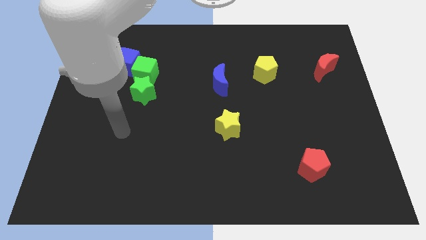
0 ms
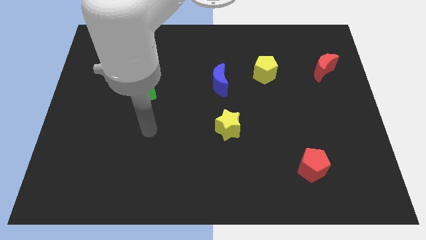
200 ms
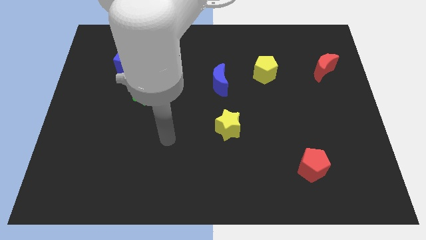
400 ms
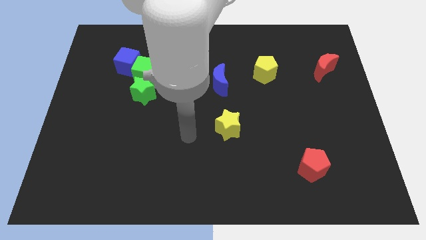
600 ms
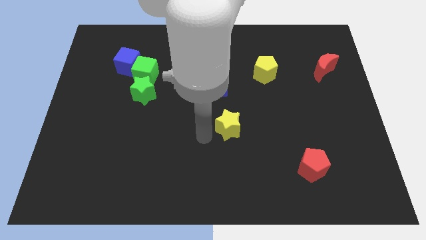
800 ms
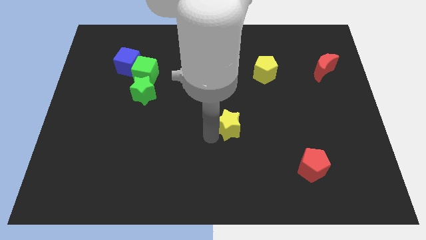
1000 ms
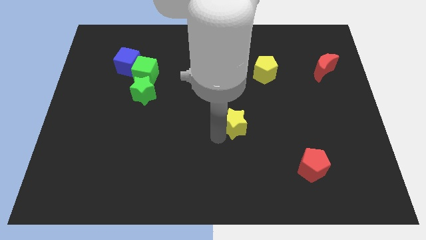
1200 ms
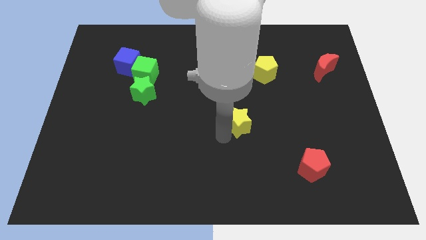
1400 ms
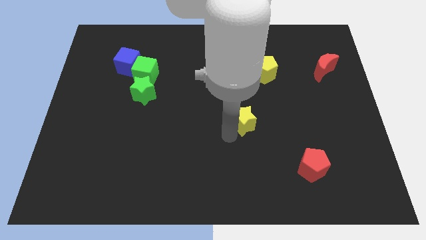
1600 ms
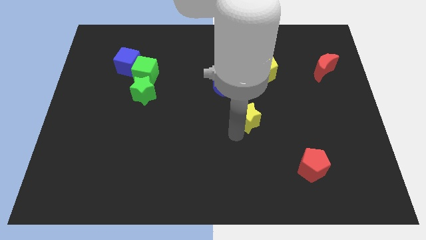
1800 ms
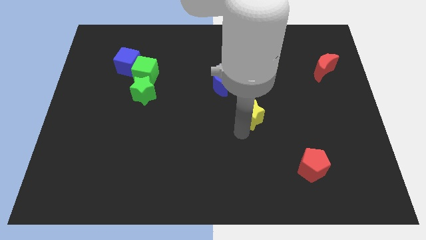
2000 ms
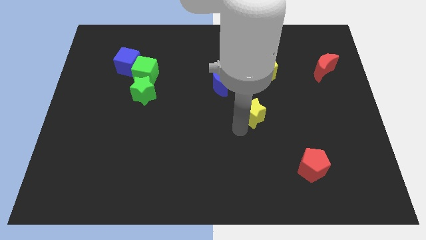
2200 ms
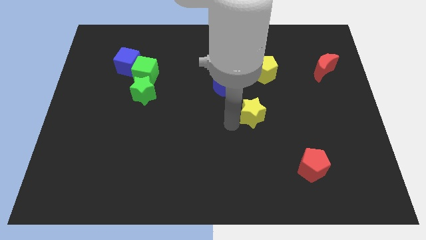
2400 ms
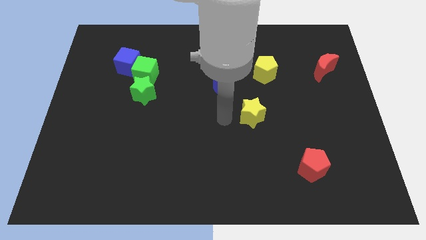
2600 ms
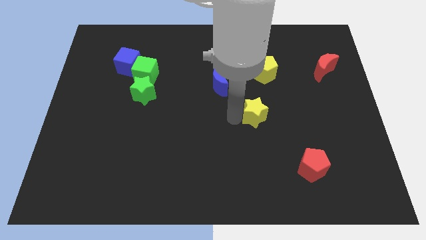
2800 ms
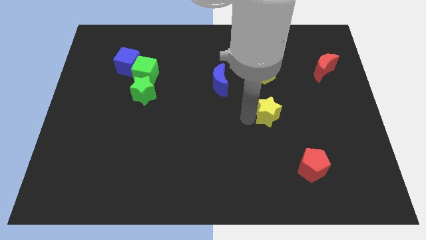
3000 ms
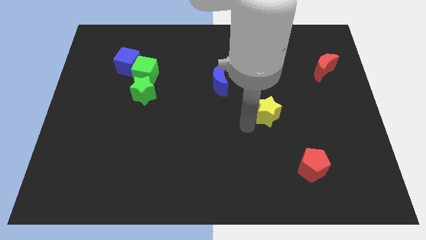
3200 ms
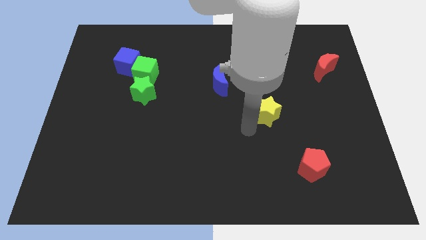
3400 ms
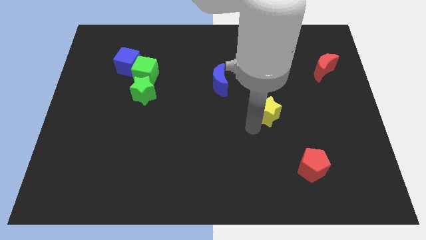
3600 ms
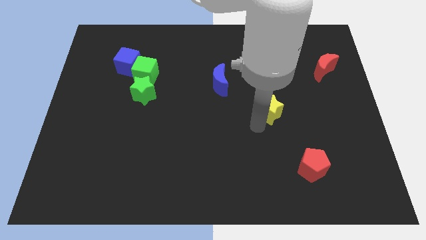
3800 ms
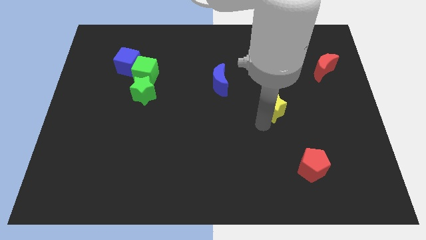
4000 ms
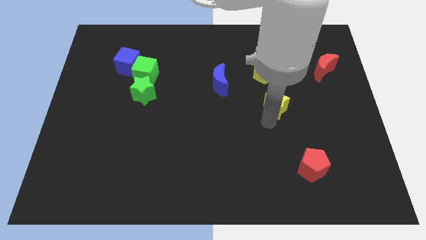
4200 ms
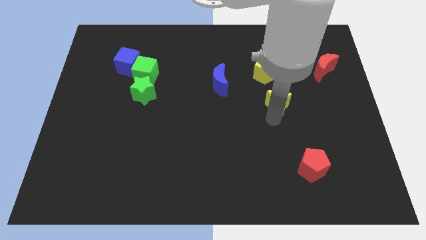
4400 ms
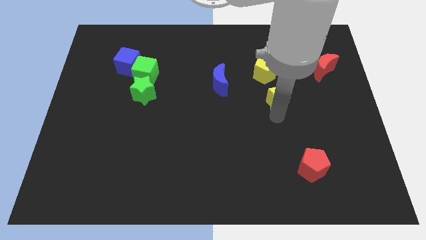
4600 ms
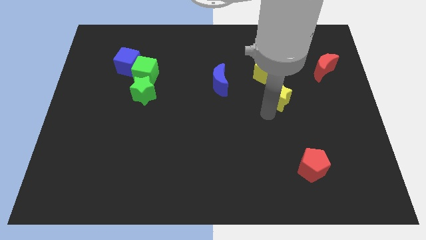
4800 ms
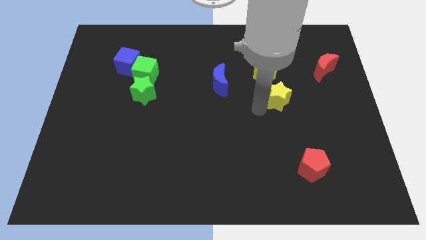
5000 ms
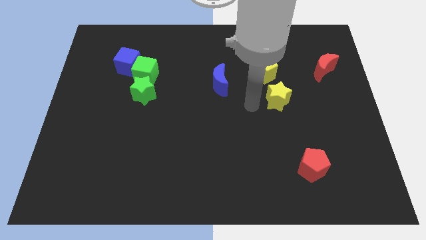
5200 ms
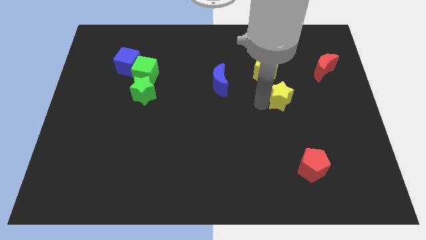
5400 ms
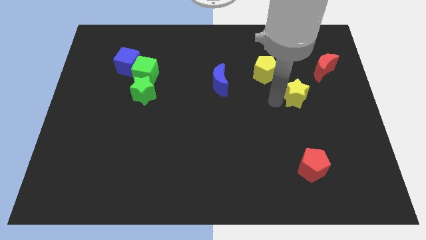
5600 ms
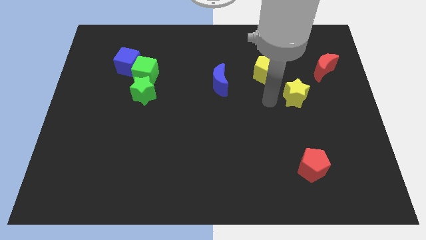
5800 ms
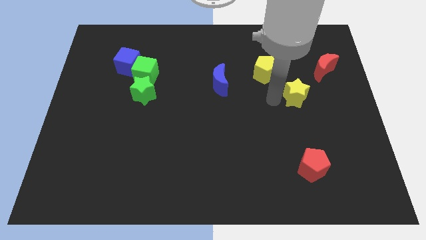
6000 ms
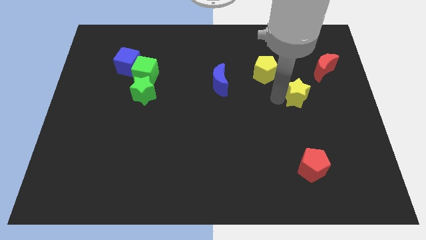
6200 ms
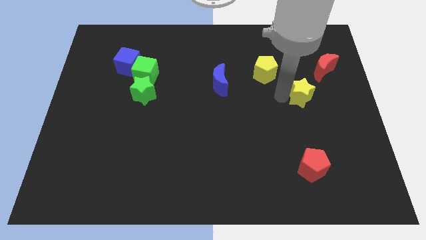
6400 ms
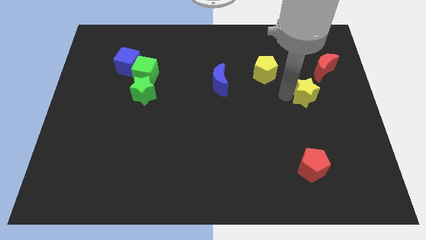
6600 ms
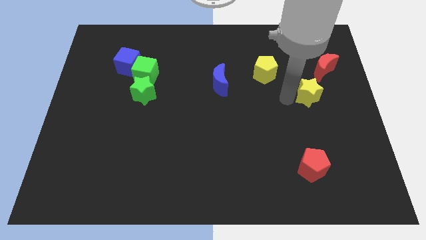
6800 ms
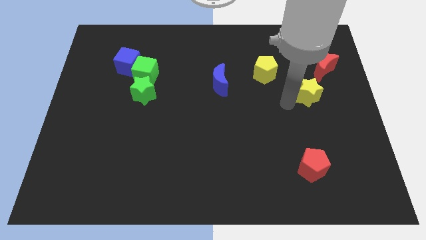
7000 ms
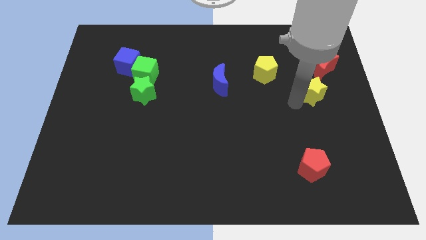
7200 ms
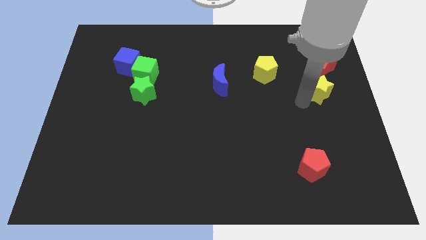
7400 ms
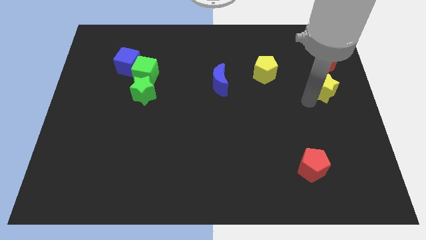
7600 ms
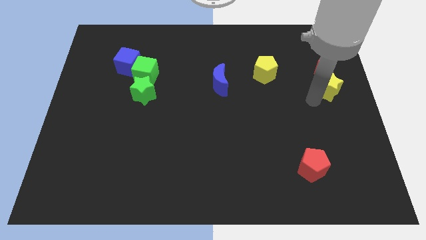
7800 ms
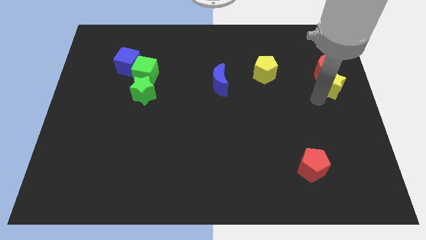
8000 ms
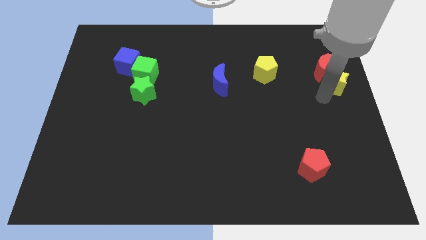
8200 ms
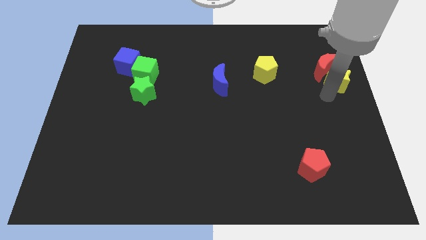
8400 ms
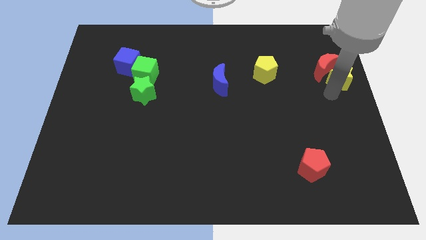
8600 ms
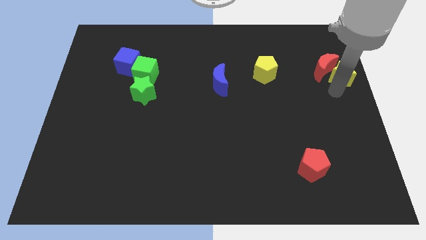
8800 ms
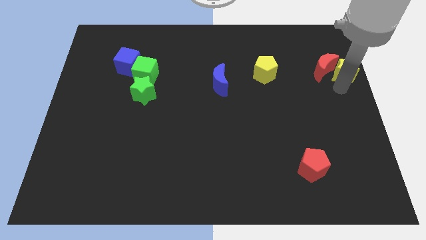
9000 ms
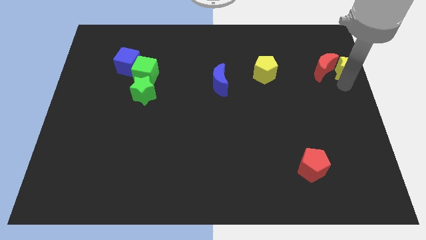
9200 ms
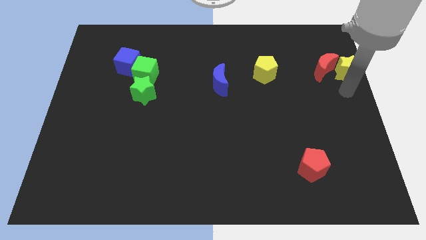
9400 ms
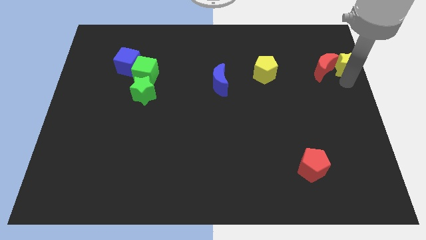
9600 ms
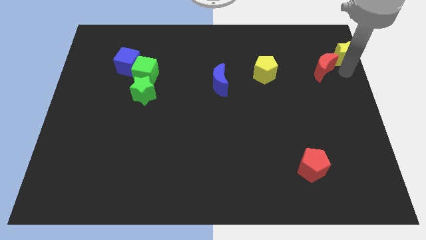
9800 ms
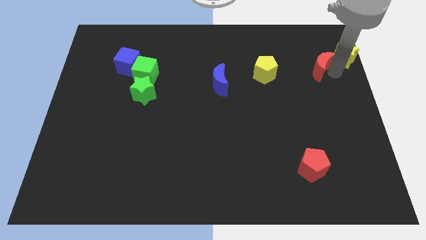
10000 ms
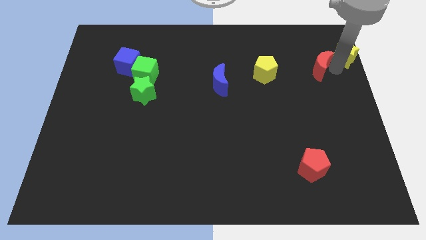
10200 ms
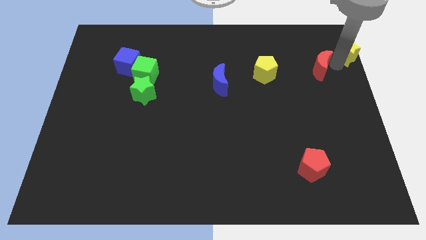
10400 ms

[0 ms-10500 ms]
push the yellow star to the top right corner
